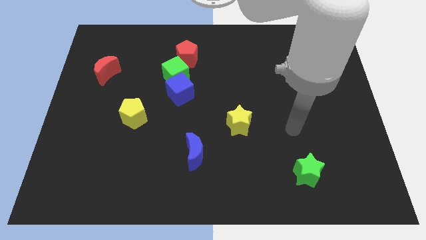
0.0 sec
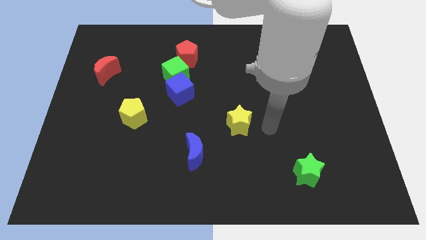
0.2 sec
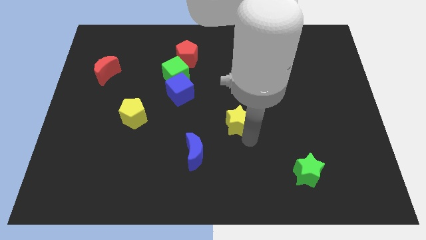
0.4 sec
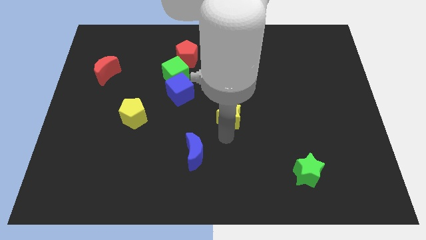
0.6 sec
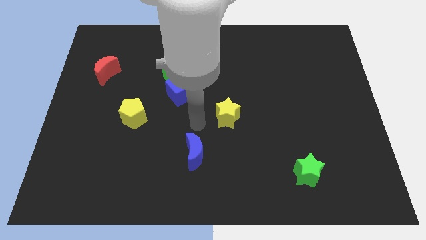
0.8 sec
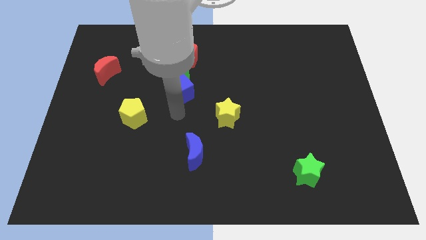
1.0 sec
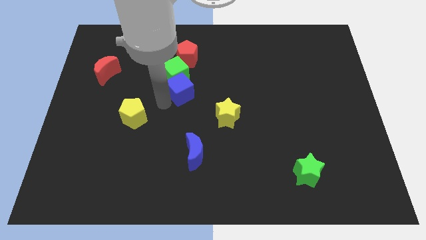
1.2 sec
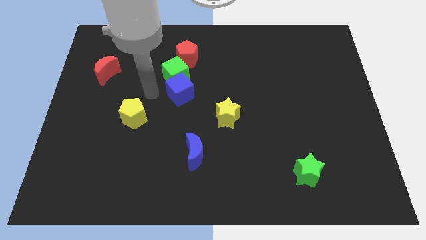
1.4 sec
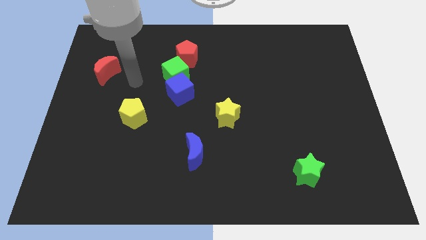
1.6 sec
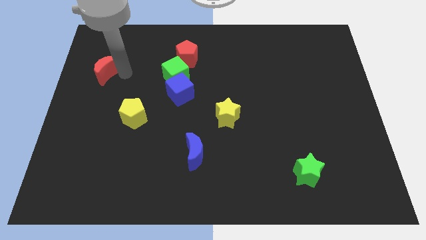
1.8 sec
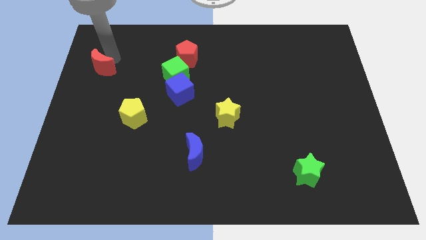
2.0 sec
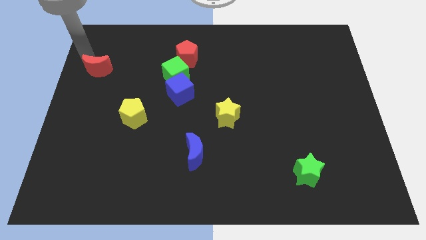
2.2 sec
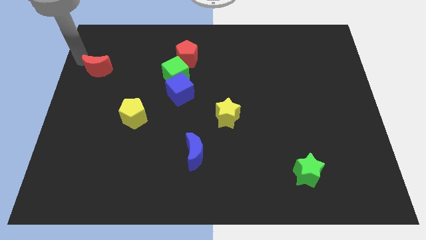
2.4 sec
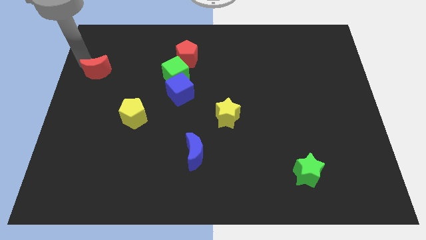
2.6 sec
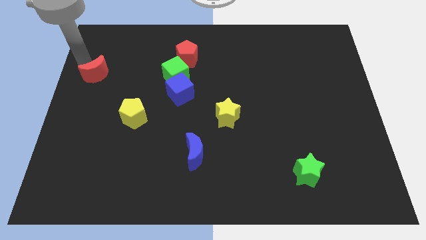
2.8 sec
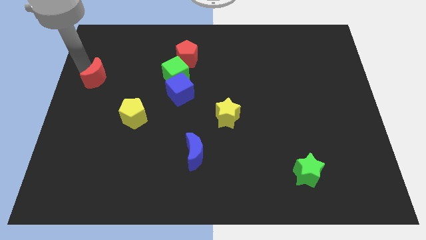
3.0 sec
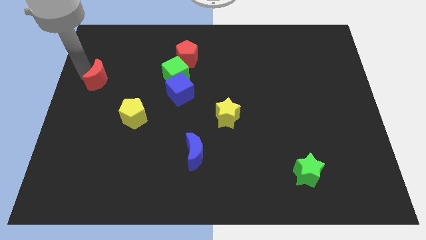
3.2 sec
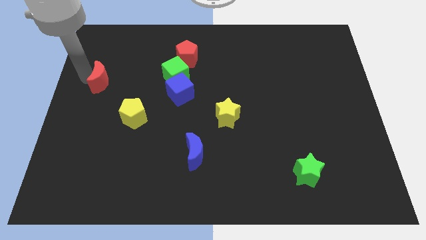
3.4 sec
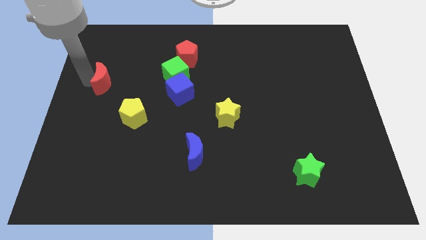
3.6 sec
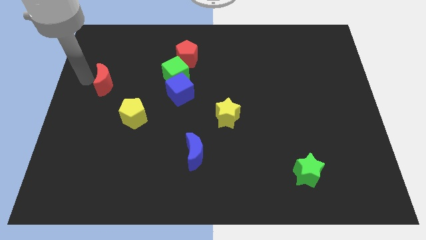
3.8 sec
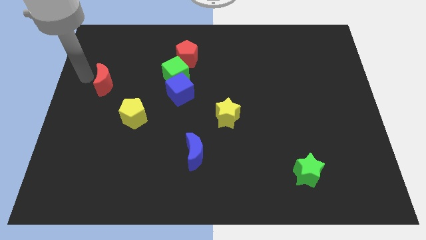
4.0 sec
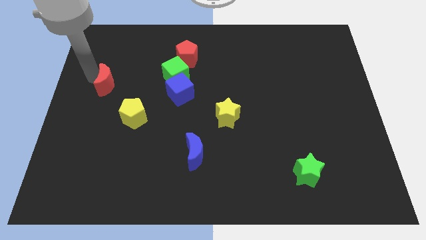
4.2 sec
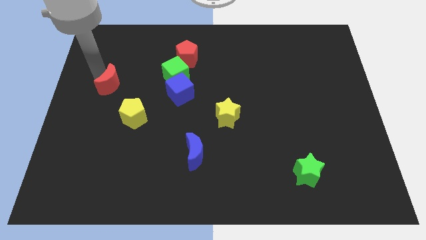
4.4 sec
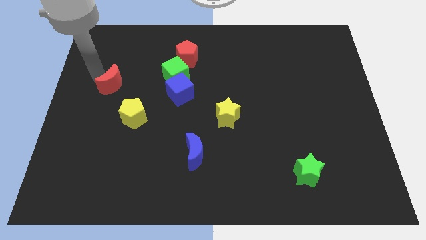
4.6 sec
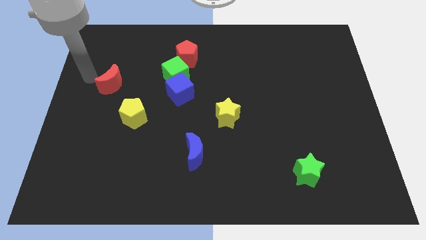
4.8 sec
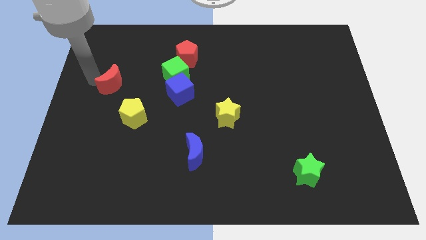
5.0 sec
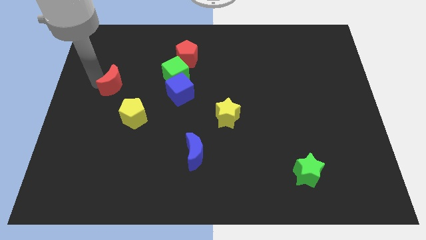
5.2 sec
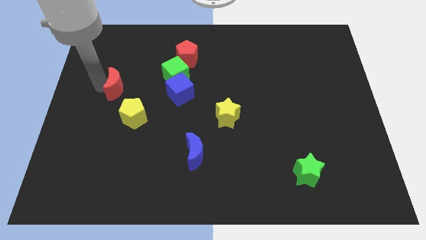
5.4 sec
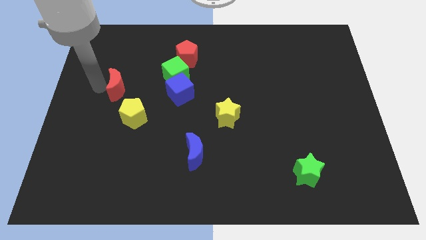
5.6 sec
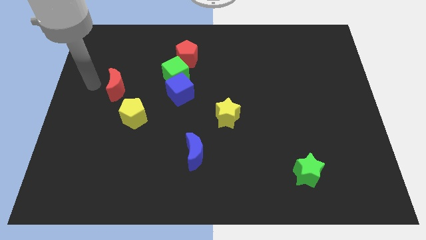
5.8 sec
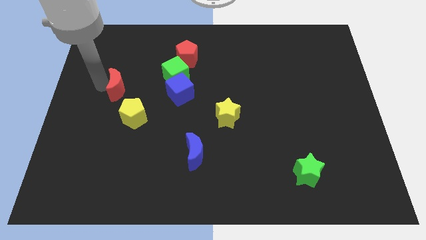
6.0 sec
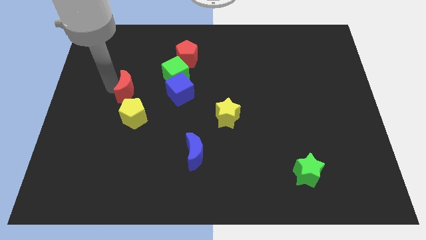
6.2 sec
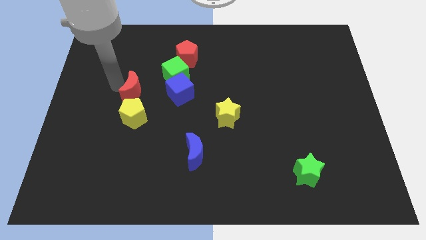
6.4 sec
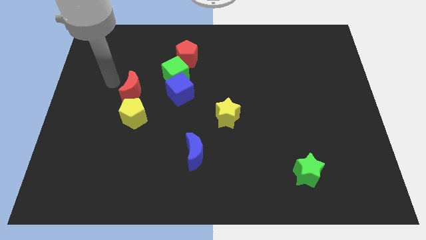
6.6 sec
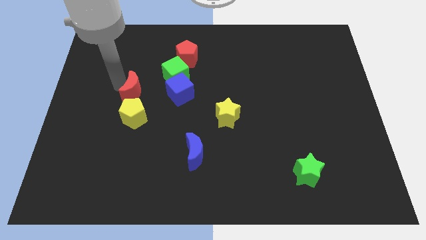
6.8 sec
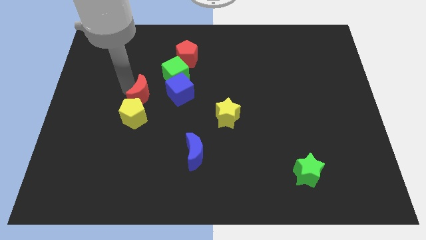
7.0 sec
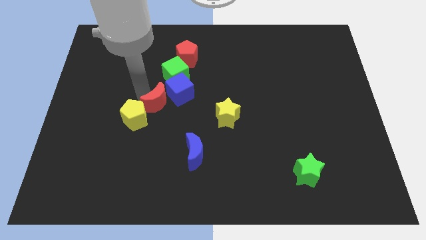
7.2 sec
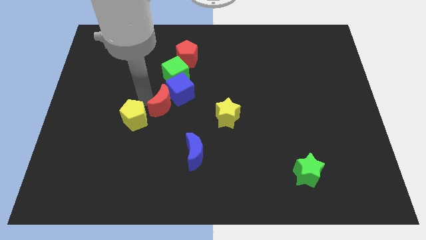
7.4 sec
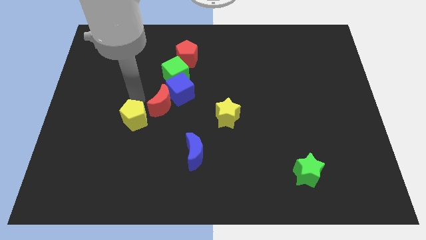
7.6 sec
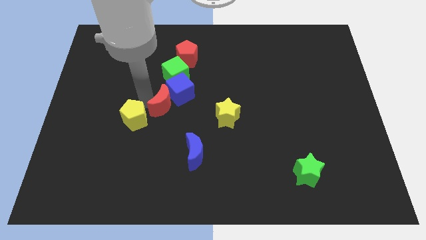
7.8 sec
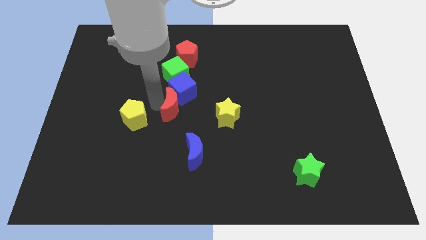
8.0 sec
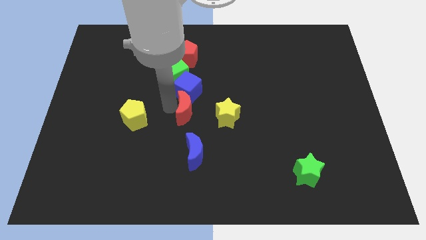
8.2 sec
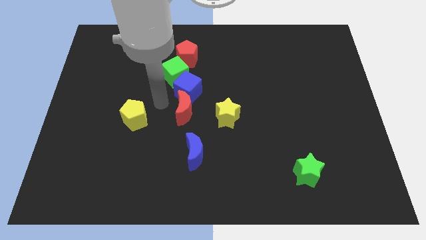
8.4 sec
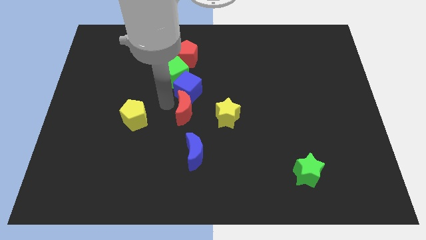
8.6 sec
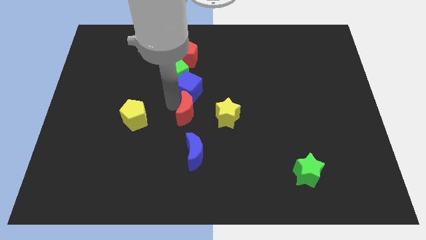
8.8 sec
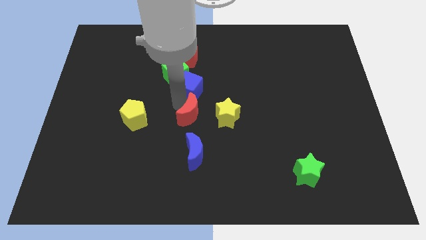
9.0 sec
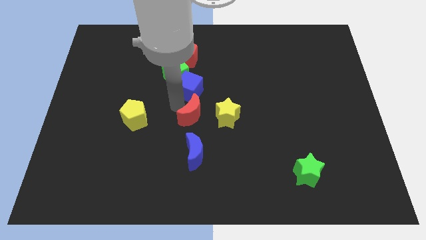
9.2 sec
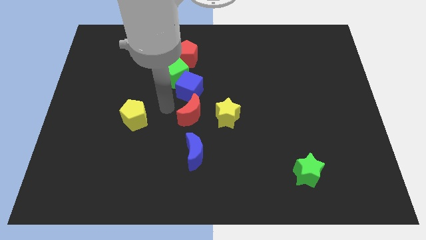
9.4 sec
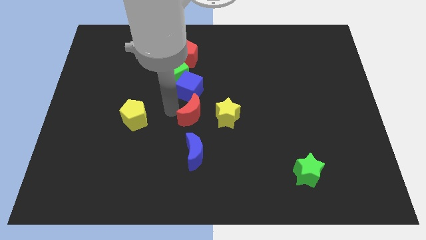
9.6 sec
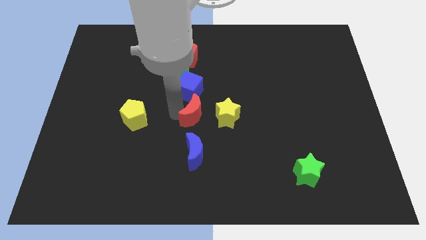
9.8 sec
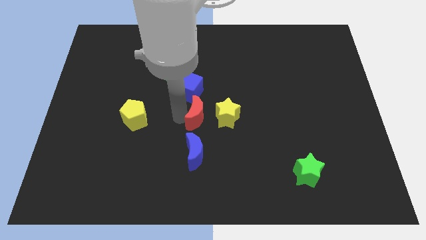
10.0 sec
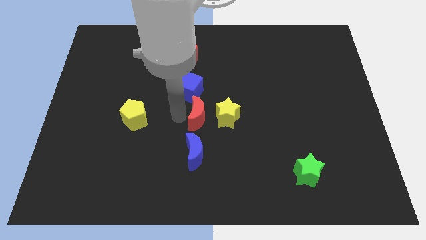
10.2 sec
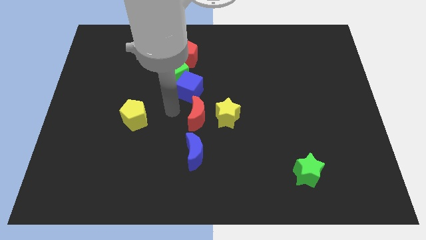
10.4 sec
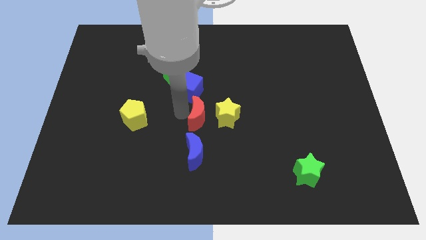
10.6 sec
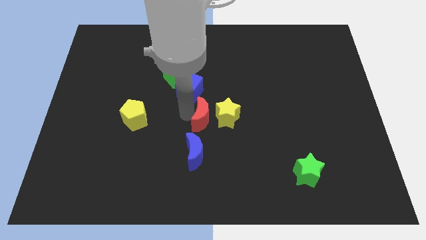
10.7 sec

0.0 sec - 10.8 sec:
slide the red moon towards the yellow star

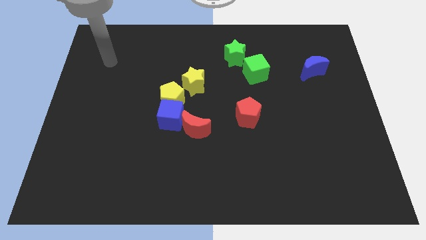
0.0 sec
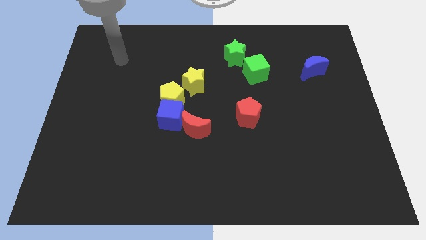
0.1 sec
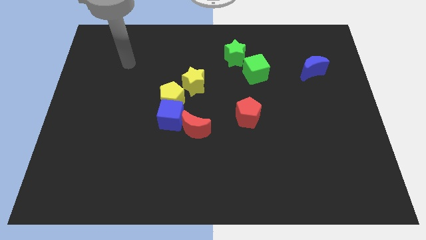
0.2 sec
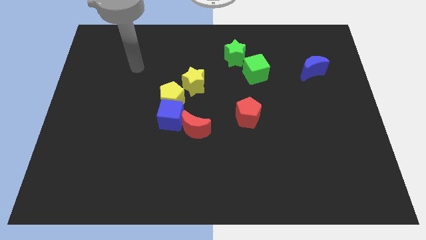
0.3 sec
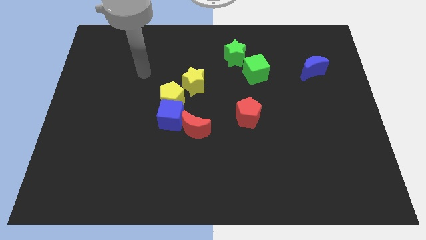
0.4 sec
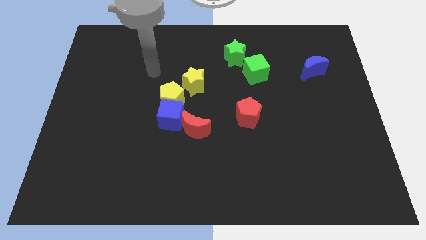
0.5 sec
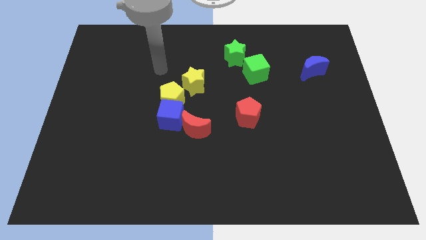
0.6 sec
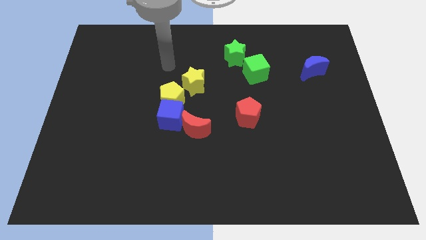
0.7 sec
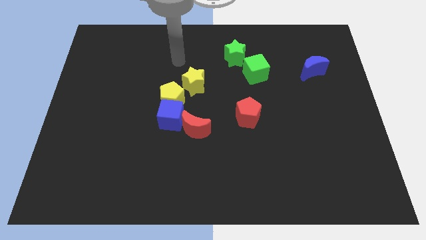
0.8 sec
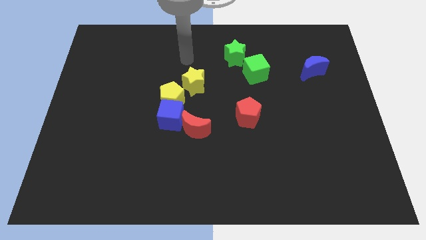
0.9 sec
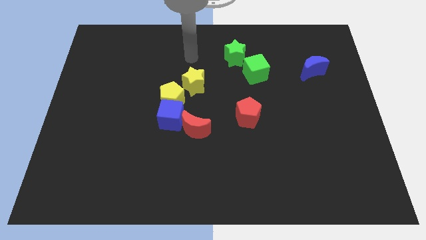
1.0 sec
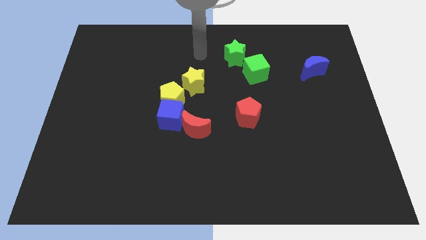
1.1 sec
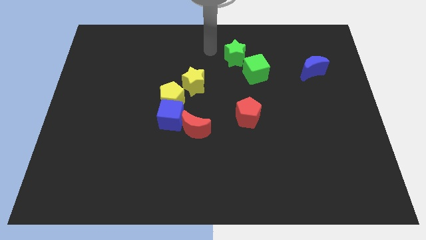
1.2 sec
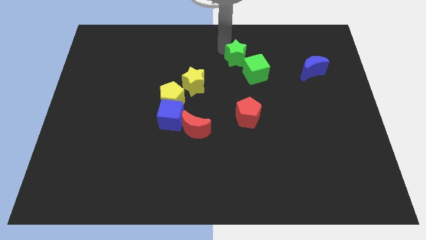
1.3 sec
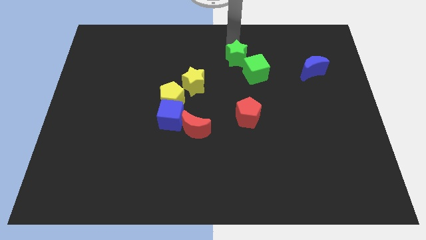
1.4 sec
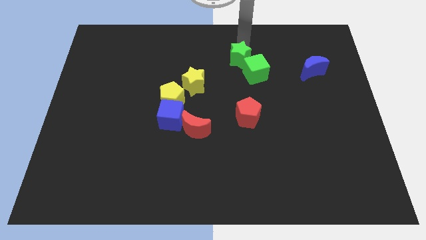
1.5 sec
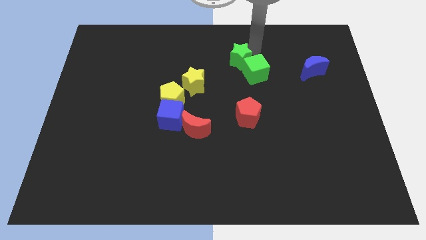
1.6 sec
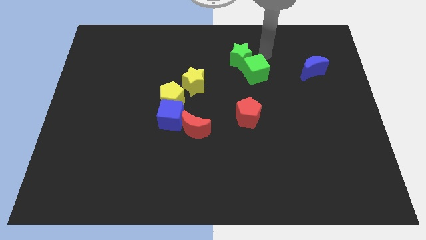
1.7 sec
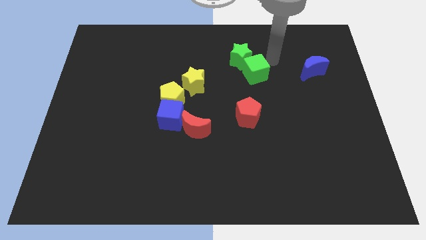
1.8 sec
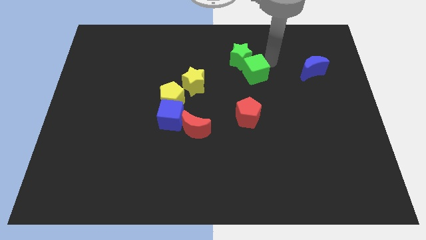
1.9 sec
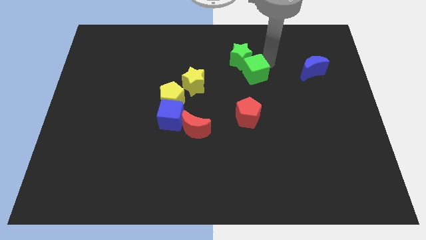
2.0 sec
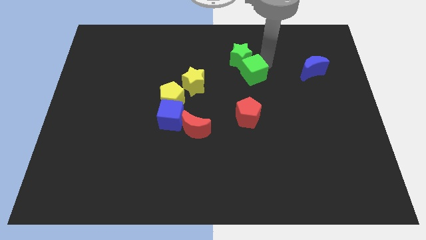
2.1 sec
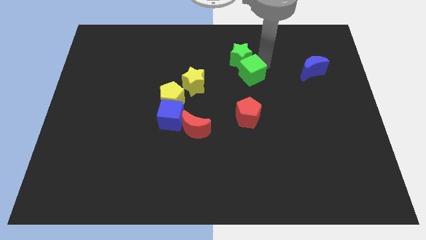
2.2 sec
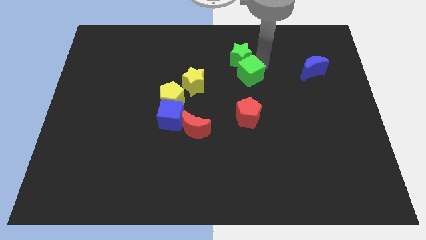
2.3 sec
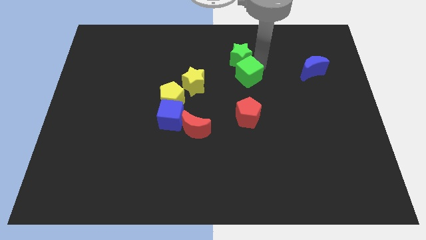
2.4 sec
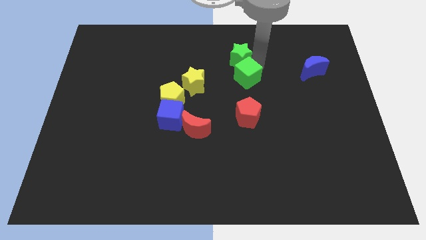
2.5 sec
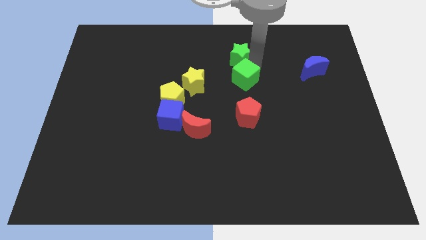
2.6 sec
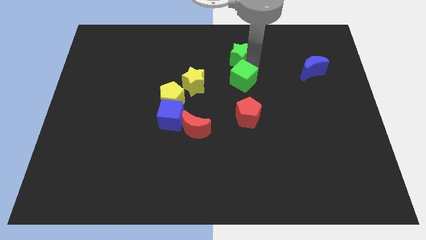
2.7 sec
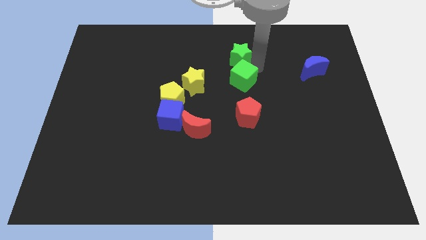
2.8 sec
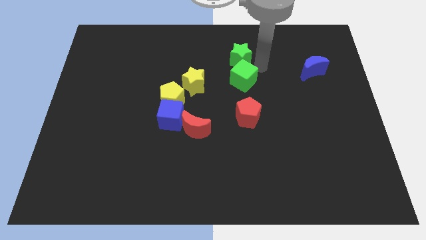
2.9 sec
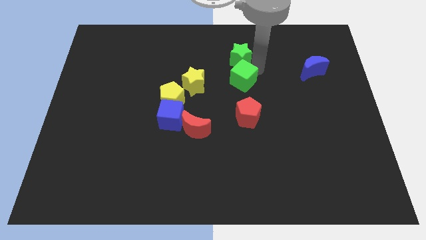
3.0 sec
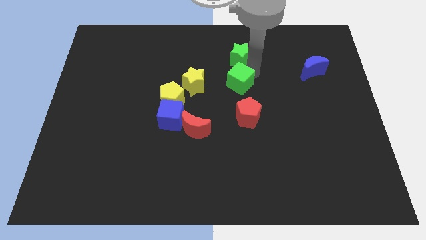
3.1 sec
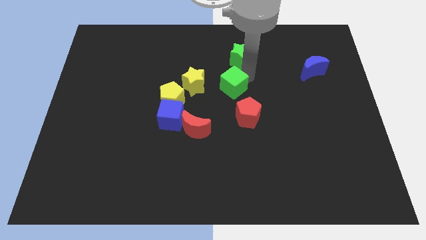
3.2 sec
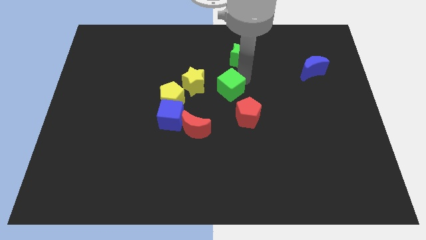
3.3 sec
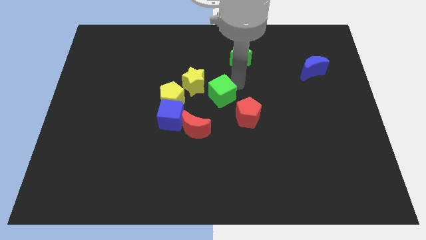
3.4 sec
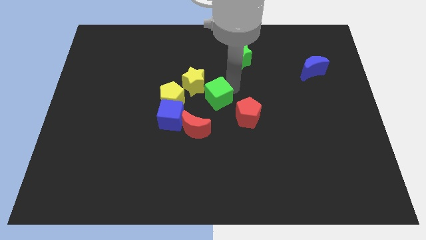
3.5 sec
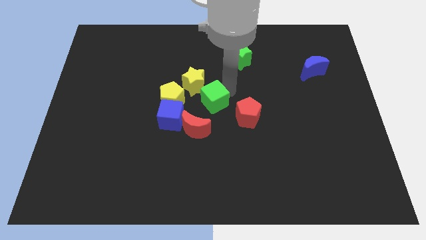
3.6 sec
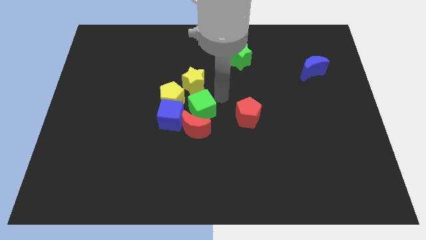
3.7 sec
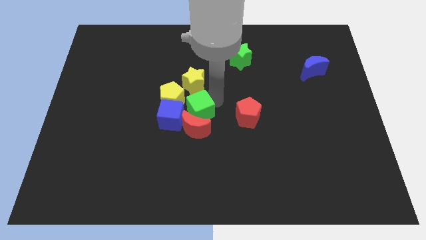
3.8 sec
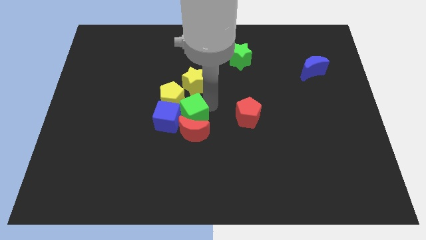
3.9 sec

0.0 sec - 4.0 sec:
move the green cube towards the blue cube
